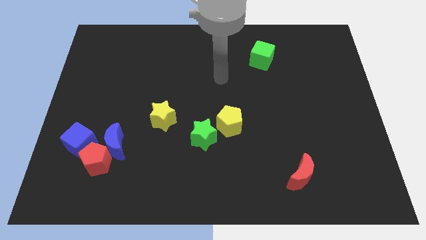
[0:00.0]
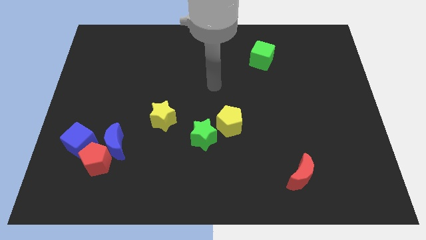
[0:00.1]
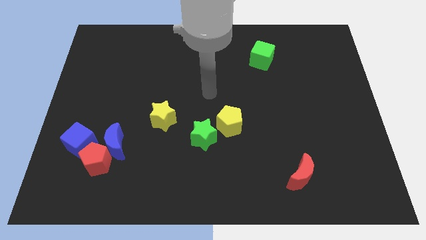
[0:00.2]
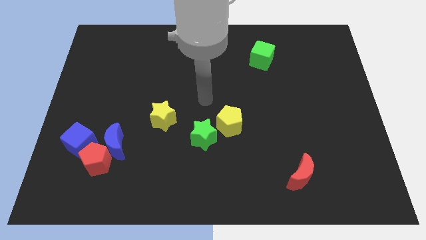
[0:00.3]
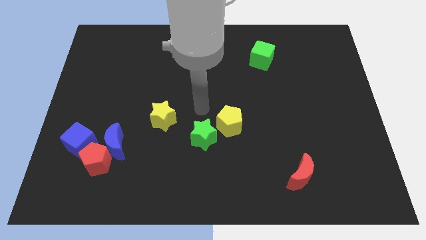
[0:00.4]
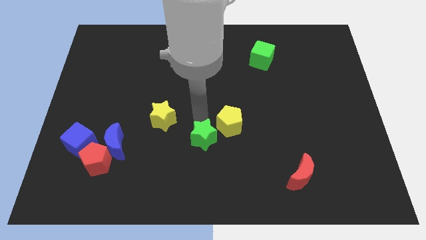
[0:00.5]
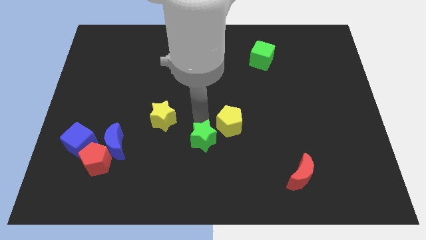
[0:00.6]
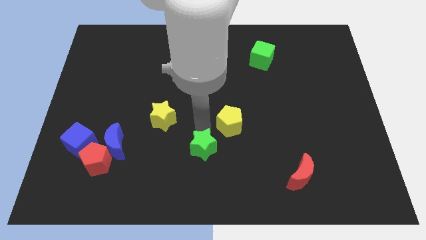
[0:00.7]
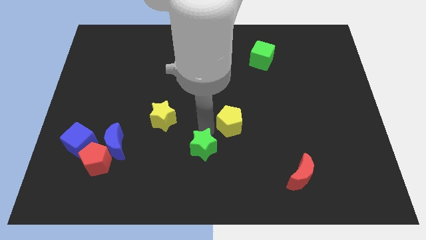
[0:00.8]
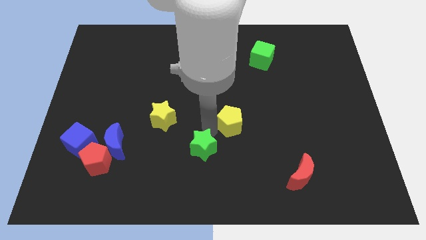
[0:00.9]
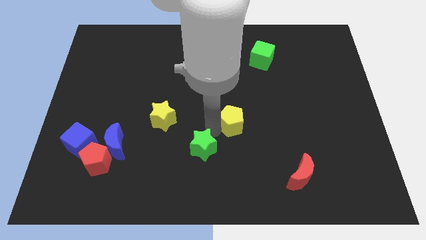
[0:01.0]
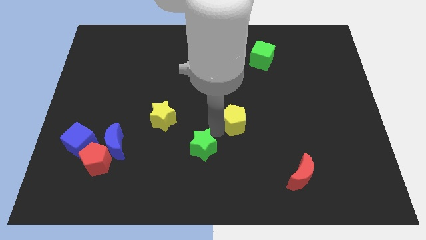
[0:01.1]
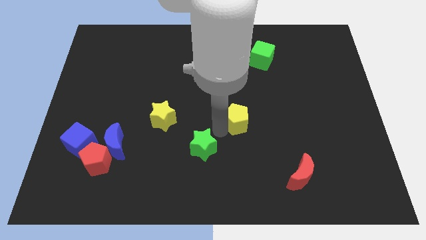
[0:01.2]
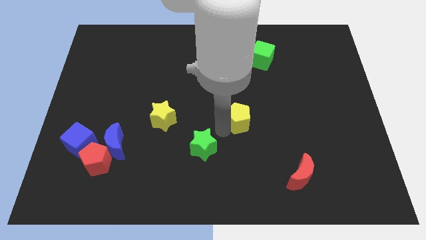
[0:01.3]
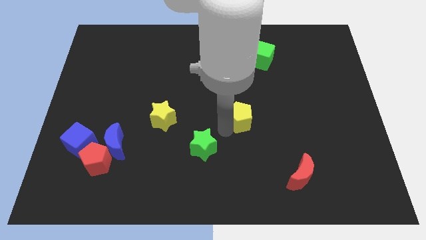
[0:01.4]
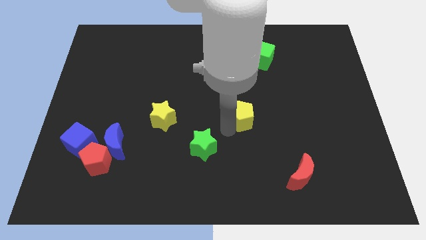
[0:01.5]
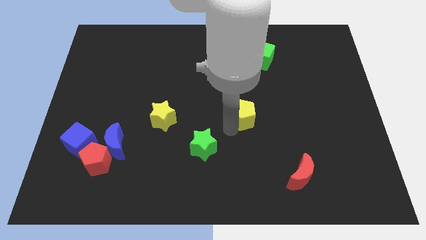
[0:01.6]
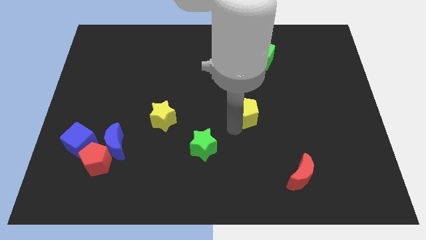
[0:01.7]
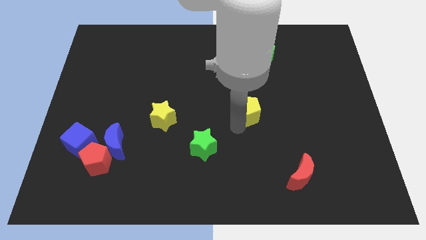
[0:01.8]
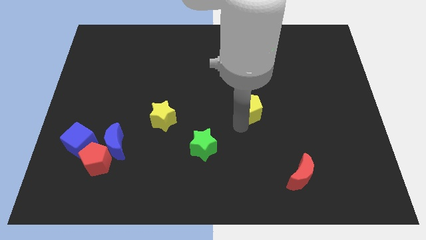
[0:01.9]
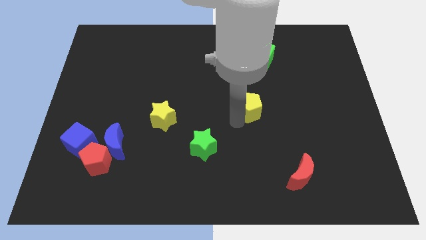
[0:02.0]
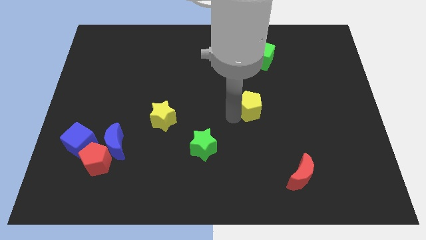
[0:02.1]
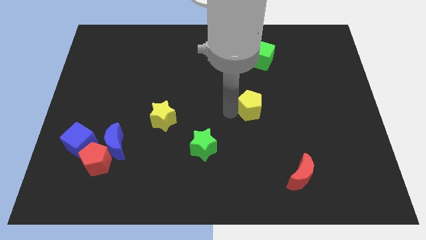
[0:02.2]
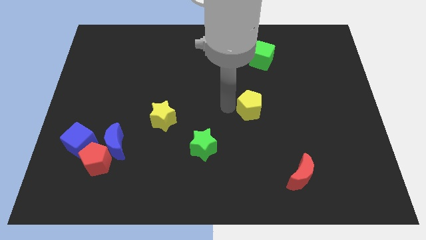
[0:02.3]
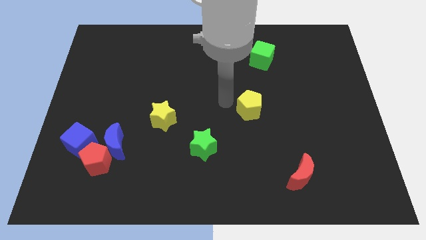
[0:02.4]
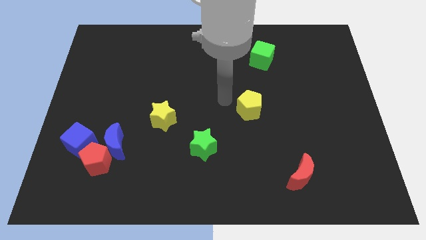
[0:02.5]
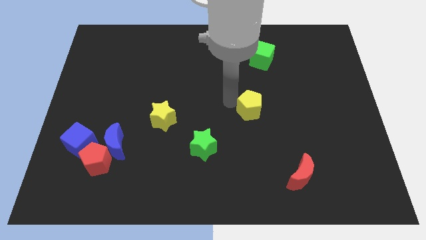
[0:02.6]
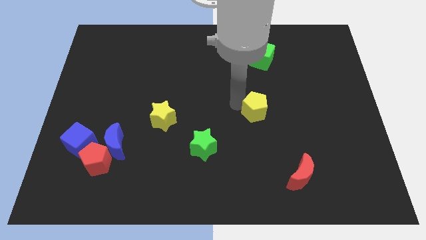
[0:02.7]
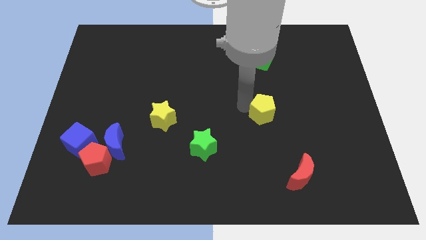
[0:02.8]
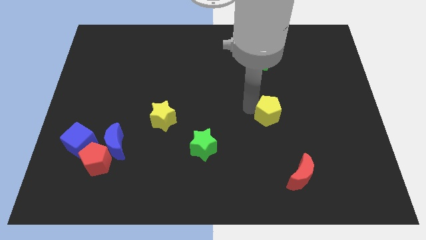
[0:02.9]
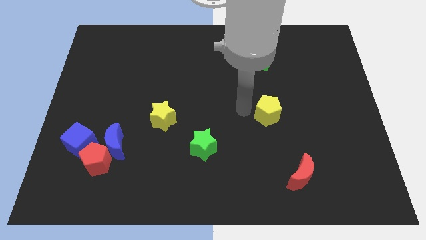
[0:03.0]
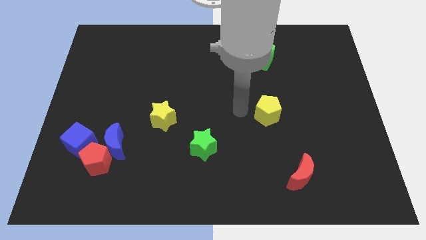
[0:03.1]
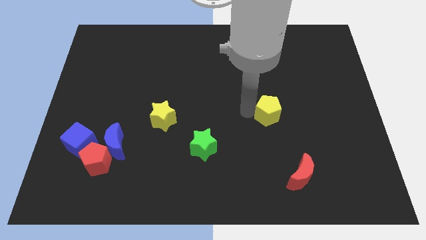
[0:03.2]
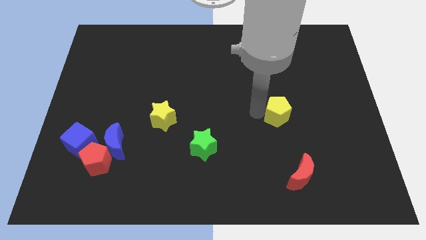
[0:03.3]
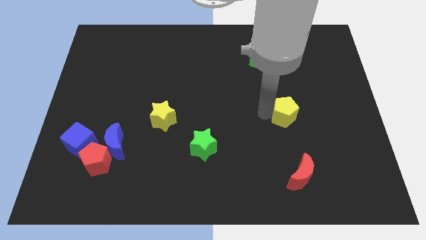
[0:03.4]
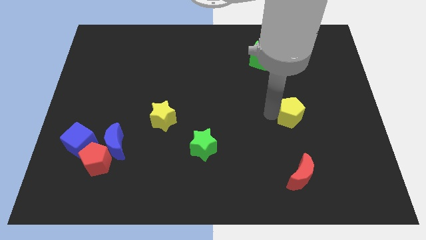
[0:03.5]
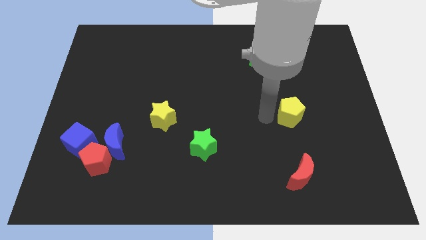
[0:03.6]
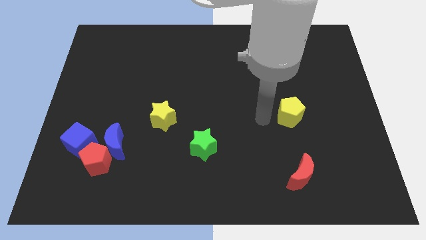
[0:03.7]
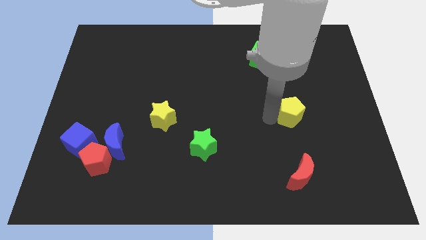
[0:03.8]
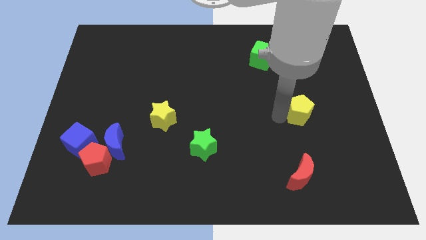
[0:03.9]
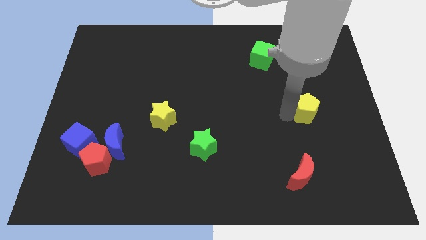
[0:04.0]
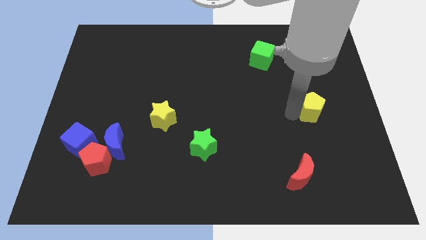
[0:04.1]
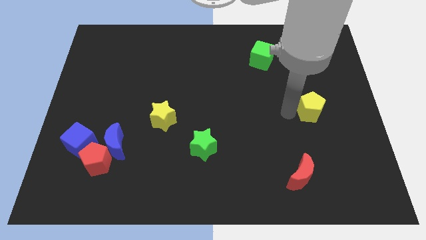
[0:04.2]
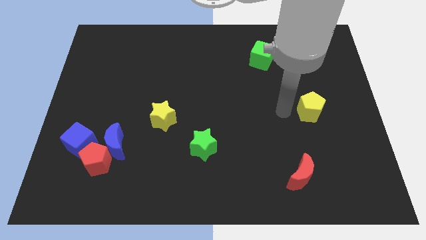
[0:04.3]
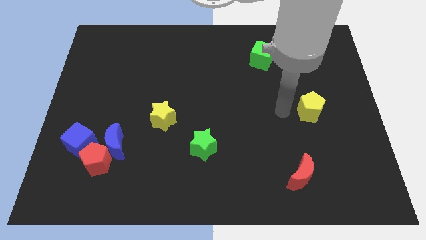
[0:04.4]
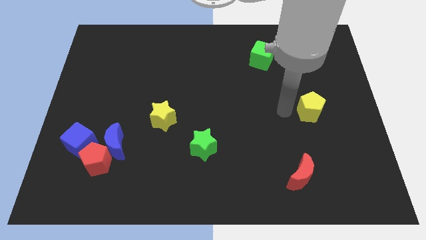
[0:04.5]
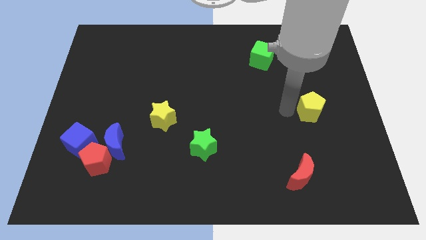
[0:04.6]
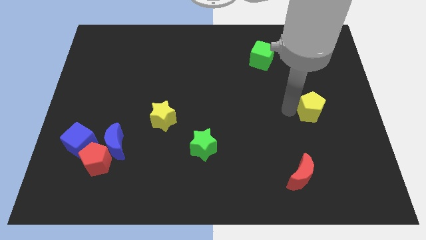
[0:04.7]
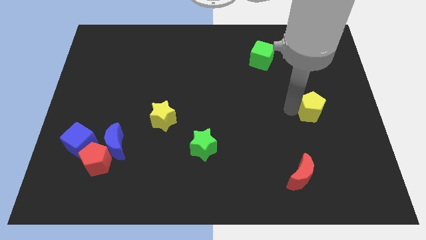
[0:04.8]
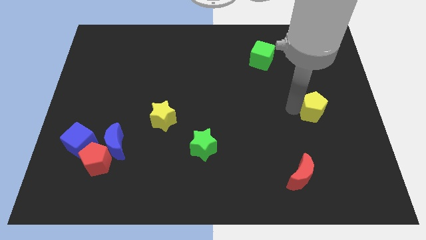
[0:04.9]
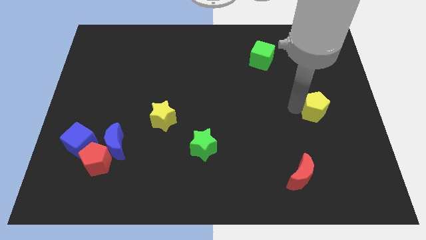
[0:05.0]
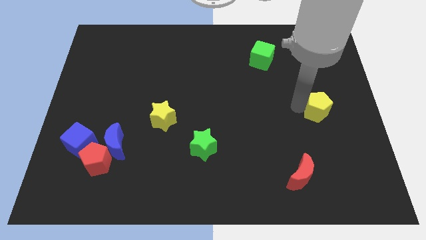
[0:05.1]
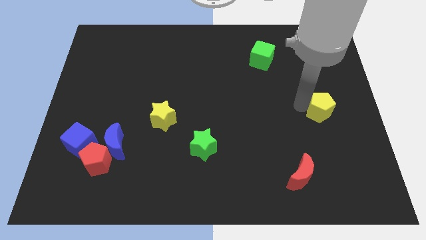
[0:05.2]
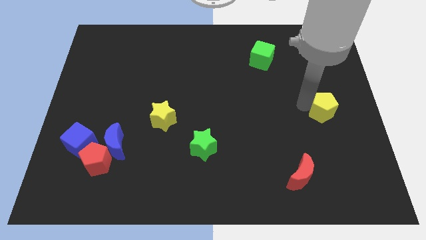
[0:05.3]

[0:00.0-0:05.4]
put the yellow pentagon to the center right

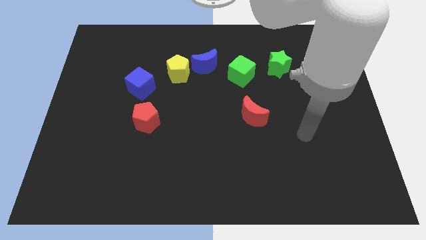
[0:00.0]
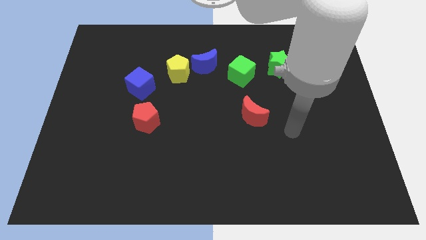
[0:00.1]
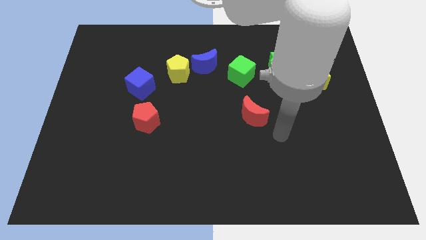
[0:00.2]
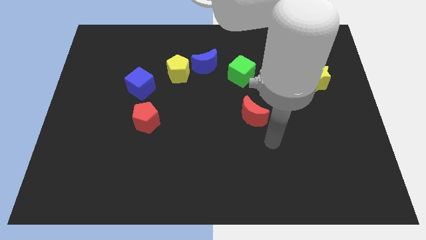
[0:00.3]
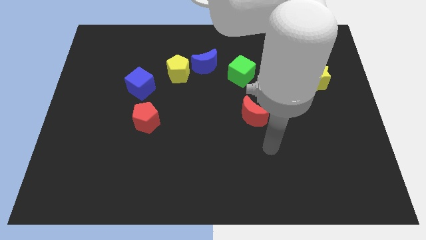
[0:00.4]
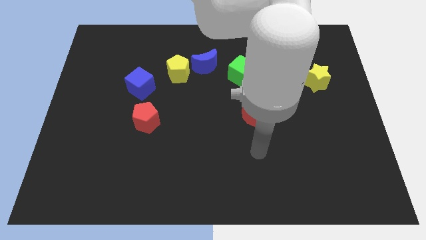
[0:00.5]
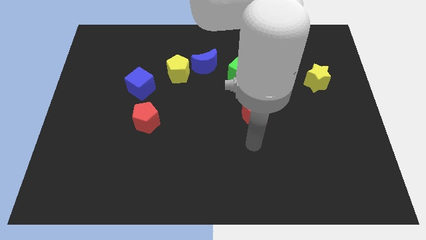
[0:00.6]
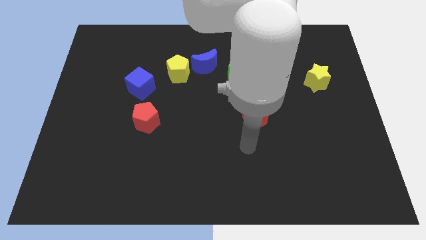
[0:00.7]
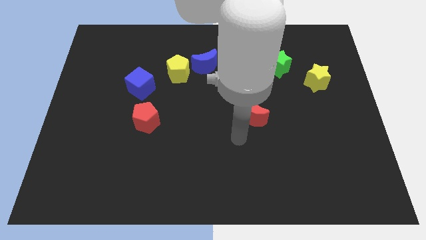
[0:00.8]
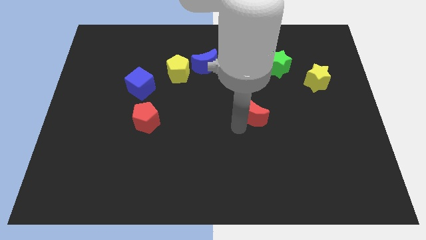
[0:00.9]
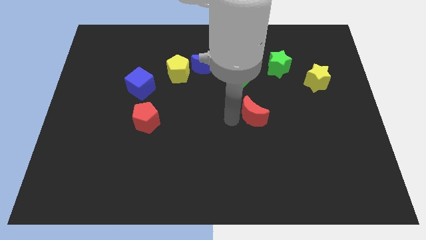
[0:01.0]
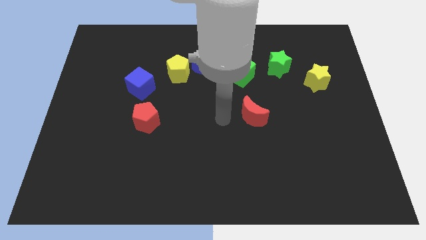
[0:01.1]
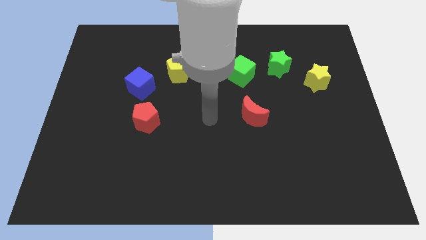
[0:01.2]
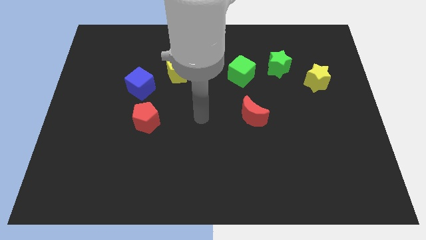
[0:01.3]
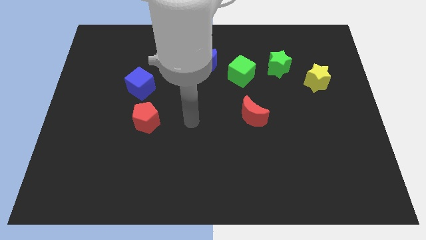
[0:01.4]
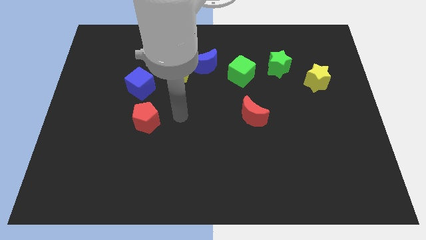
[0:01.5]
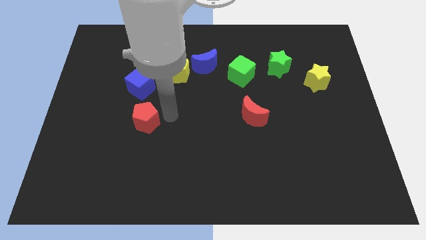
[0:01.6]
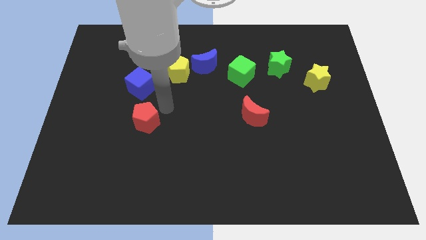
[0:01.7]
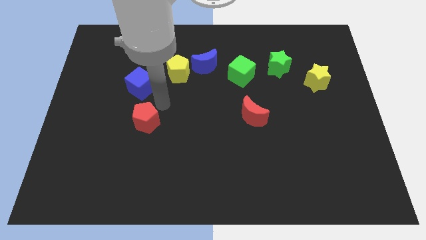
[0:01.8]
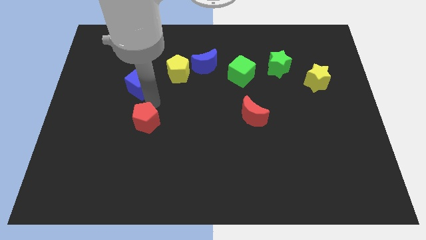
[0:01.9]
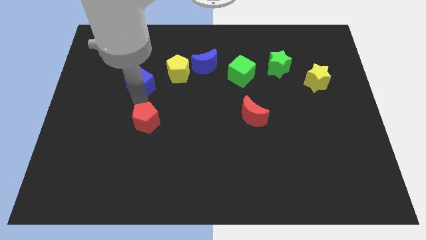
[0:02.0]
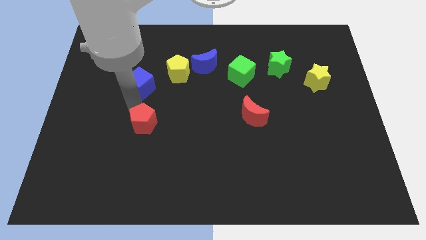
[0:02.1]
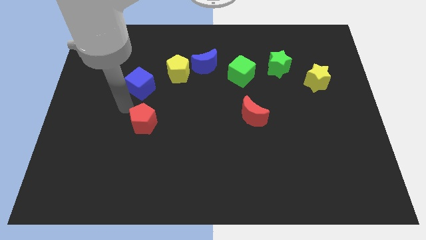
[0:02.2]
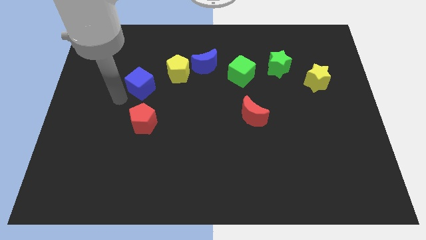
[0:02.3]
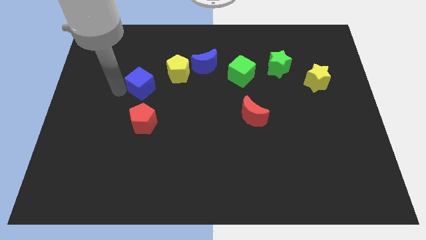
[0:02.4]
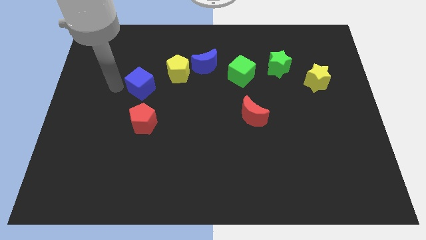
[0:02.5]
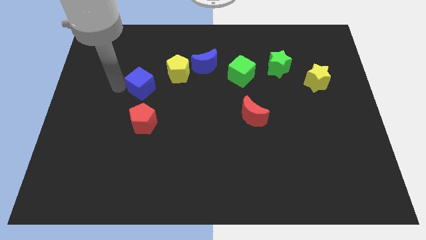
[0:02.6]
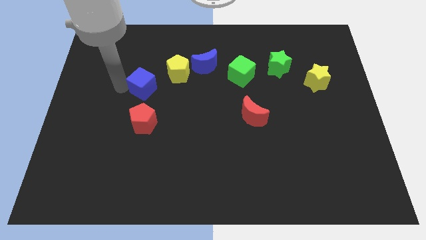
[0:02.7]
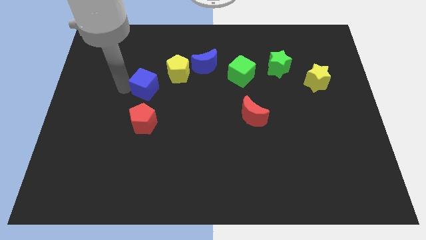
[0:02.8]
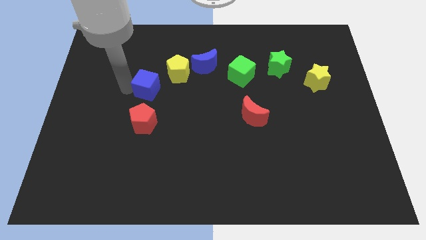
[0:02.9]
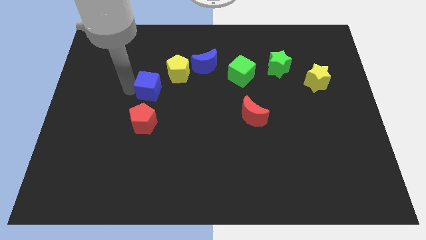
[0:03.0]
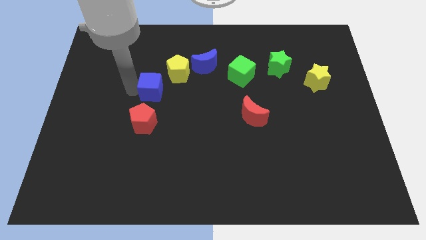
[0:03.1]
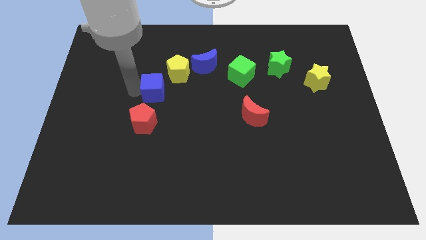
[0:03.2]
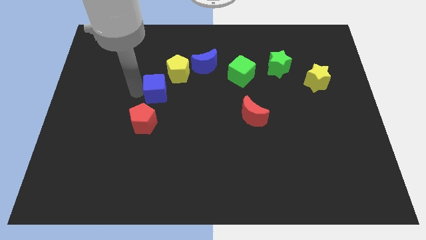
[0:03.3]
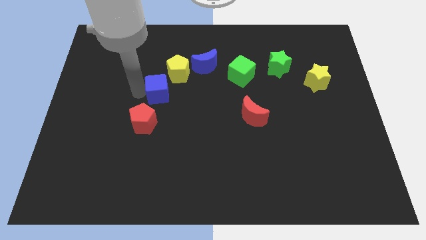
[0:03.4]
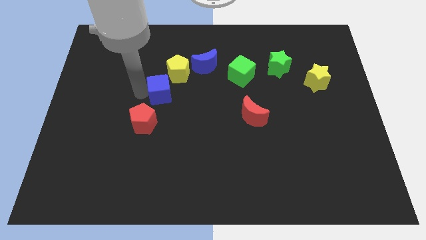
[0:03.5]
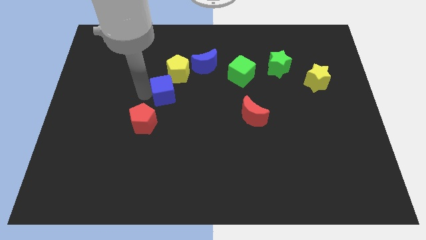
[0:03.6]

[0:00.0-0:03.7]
move the blue cube to the middle
